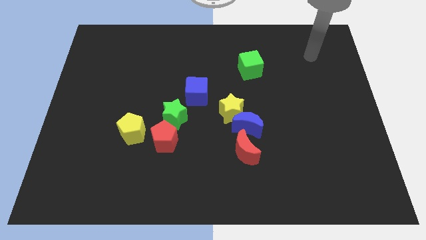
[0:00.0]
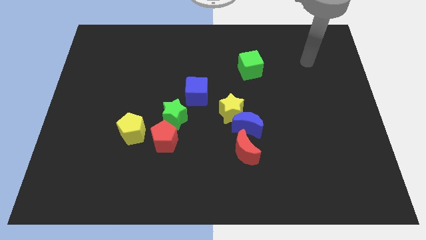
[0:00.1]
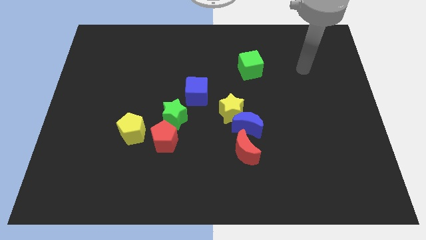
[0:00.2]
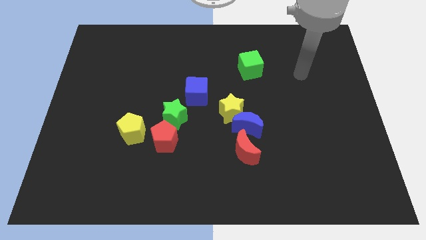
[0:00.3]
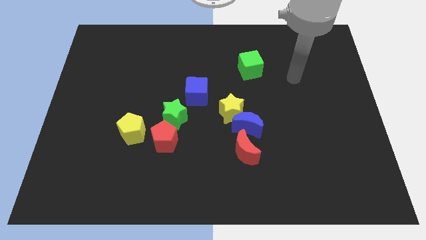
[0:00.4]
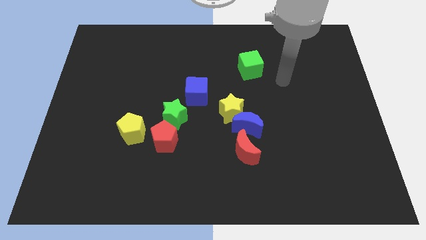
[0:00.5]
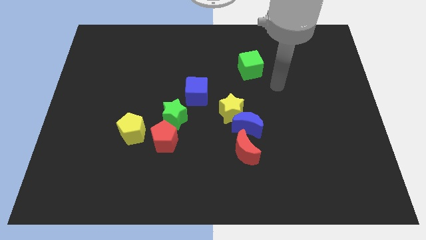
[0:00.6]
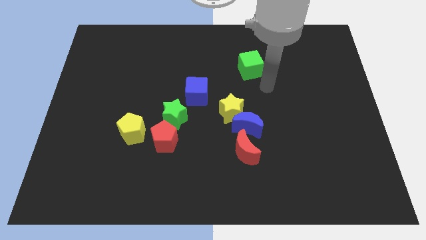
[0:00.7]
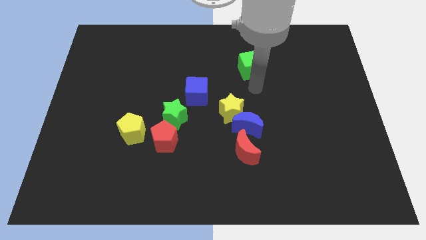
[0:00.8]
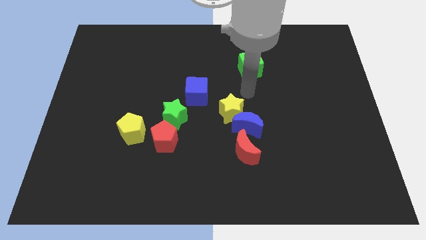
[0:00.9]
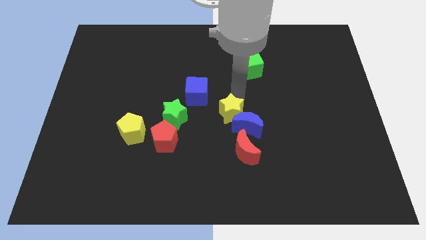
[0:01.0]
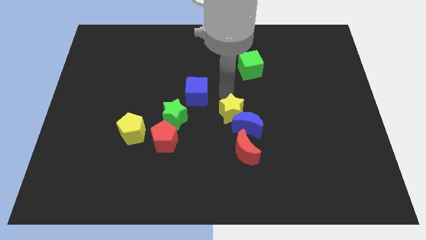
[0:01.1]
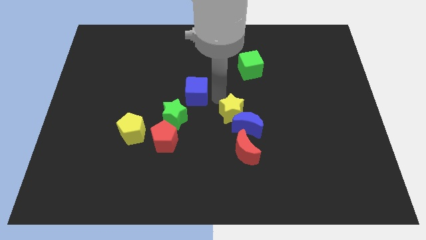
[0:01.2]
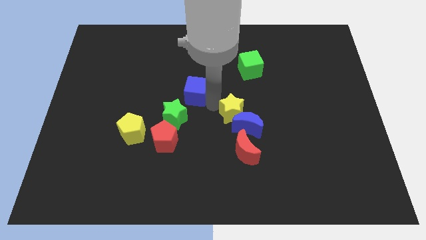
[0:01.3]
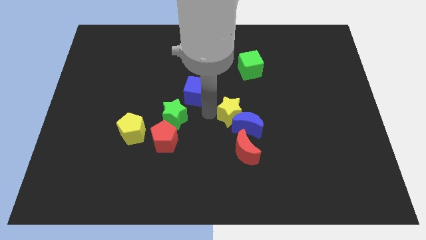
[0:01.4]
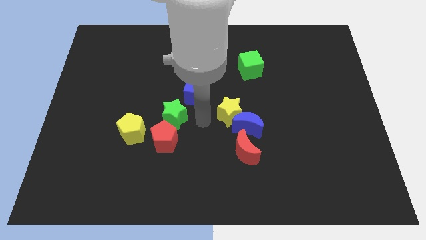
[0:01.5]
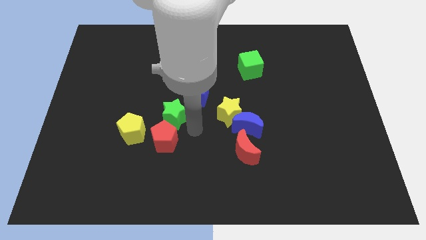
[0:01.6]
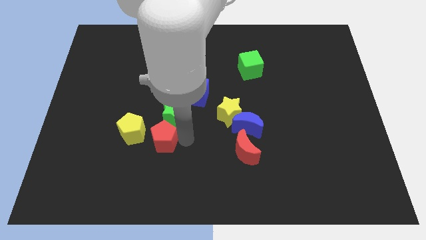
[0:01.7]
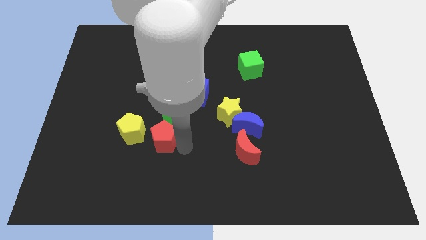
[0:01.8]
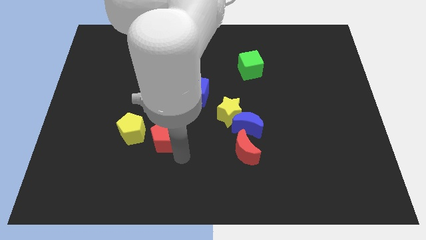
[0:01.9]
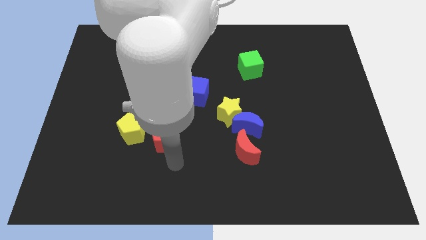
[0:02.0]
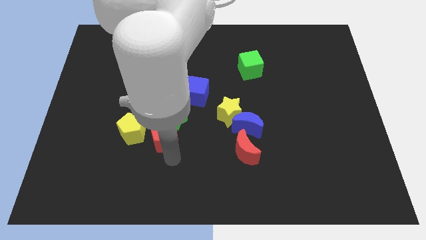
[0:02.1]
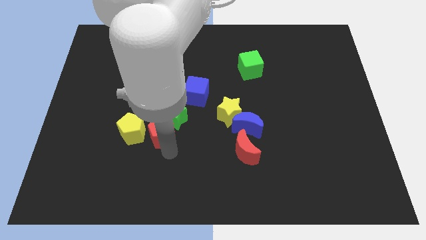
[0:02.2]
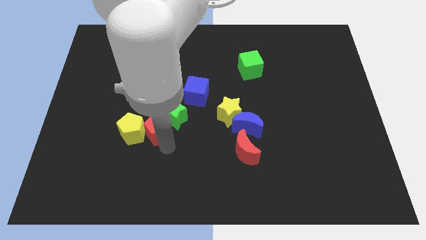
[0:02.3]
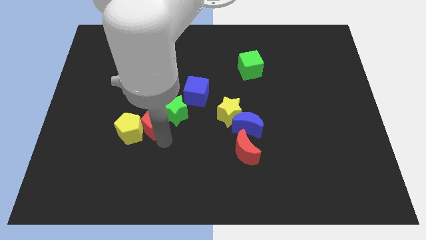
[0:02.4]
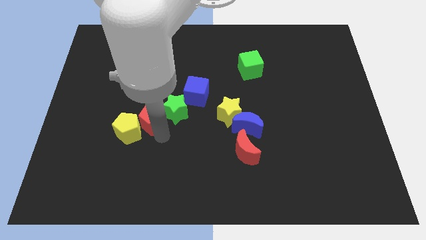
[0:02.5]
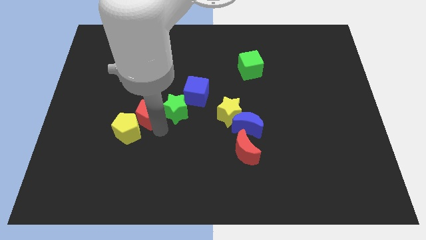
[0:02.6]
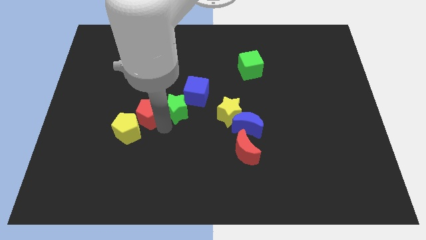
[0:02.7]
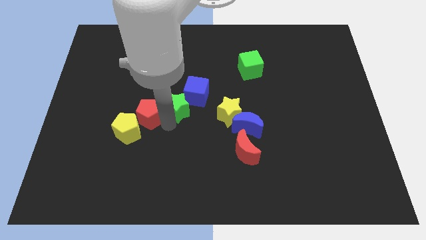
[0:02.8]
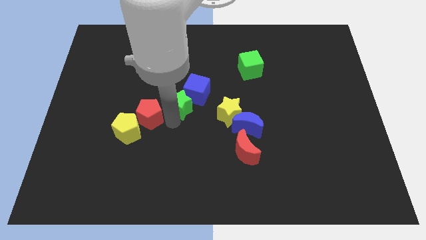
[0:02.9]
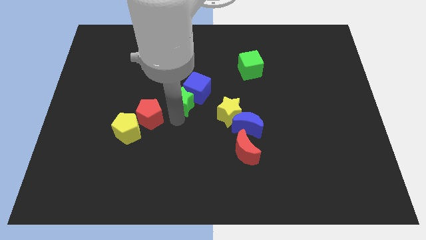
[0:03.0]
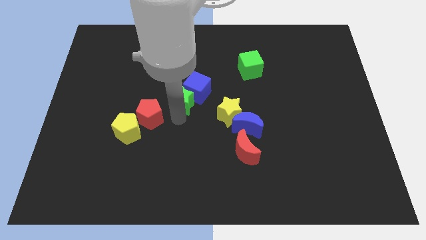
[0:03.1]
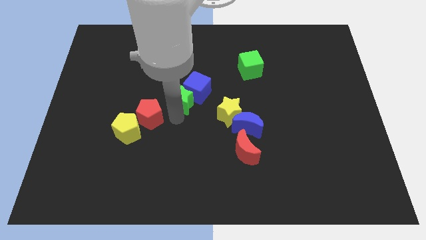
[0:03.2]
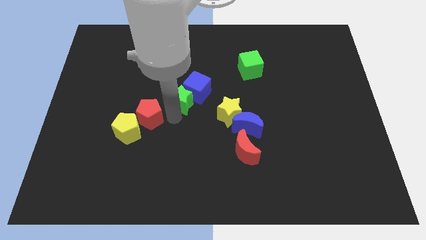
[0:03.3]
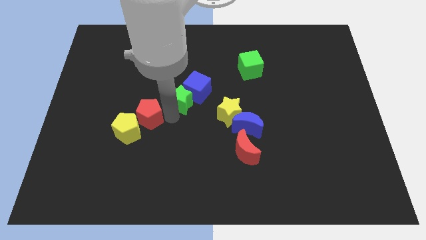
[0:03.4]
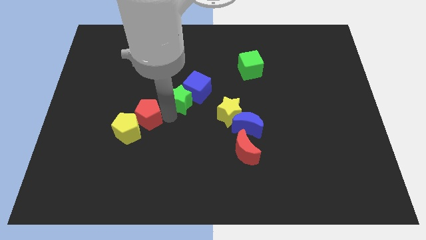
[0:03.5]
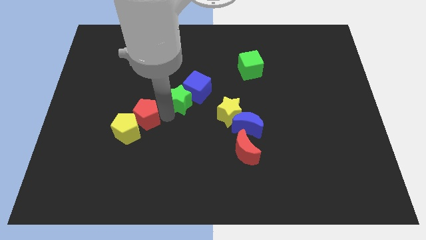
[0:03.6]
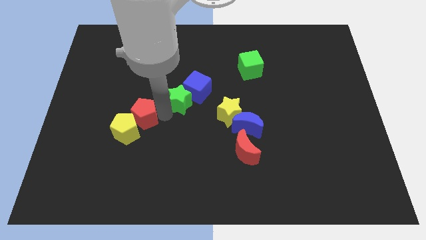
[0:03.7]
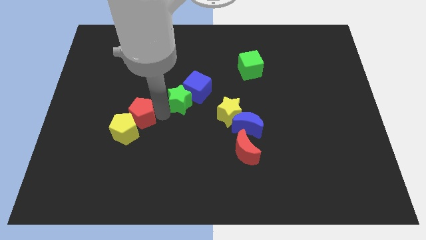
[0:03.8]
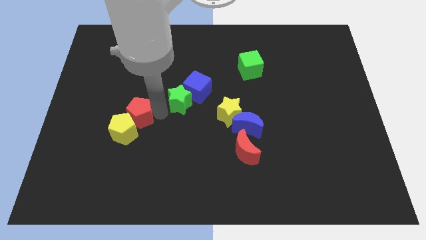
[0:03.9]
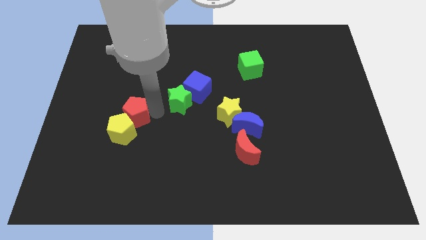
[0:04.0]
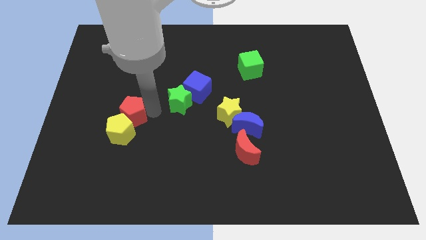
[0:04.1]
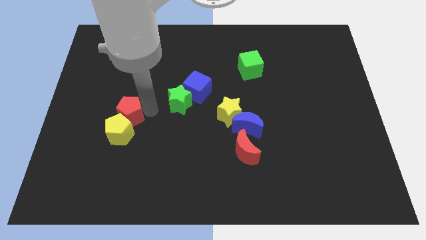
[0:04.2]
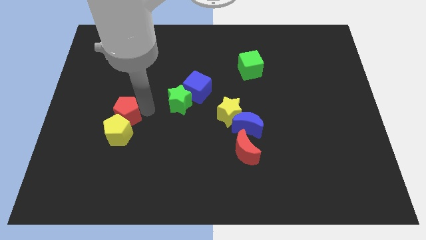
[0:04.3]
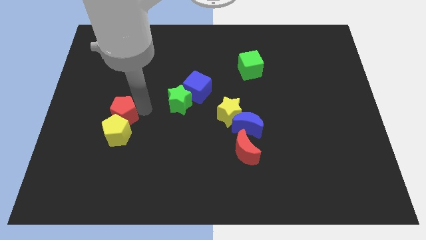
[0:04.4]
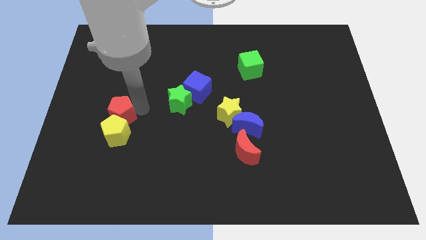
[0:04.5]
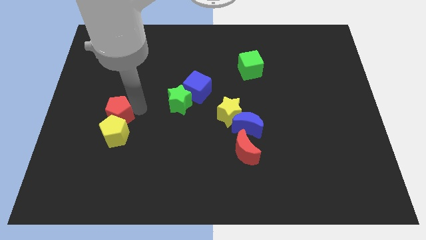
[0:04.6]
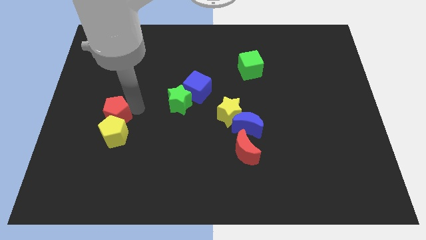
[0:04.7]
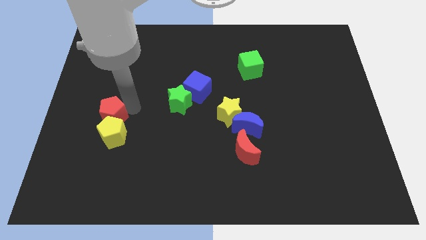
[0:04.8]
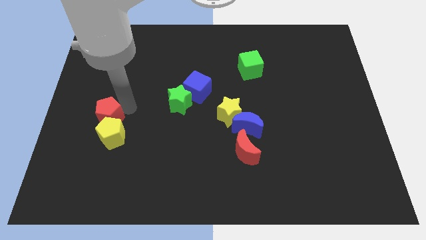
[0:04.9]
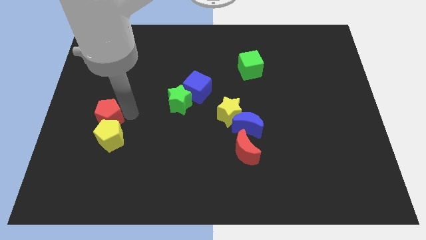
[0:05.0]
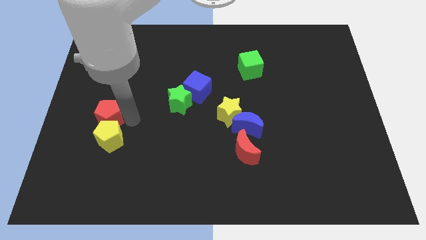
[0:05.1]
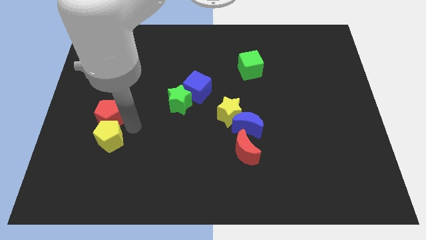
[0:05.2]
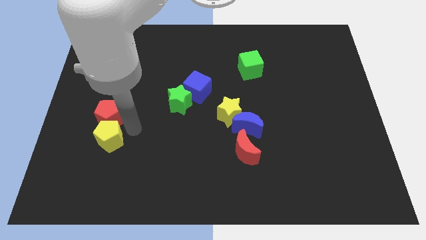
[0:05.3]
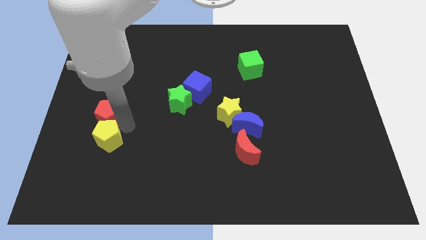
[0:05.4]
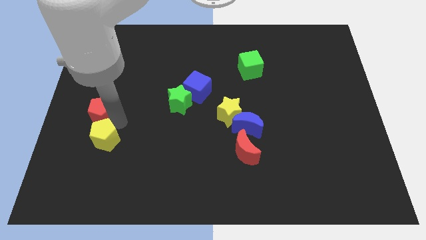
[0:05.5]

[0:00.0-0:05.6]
move the red pentagon to the center left
